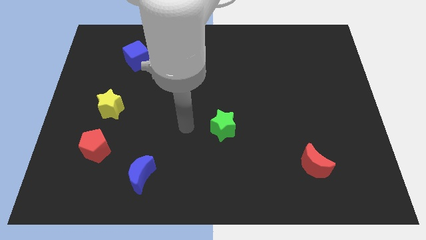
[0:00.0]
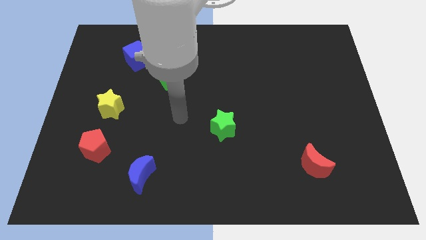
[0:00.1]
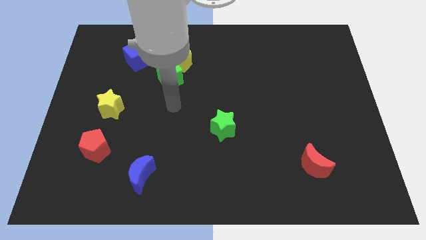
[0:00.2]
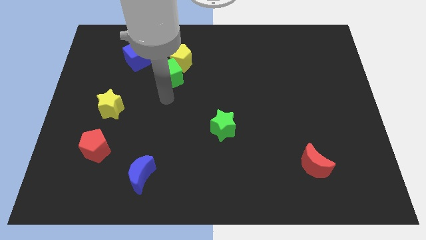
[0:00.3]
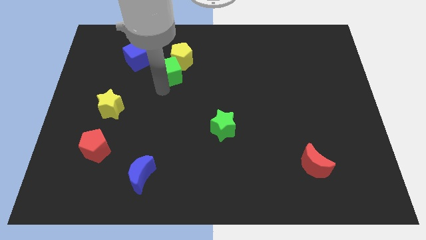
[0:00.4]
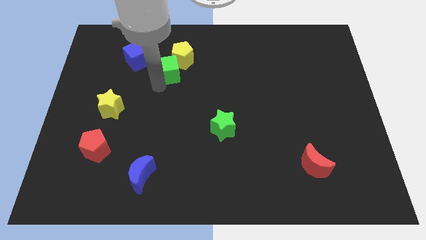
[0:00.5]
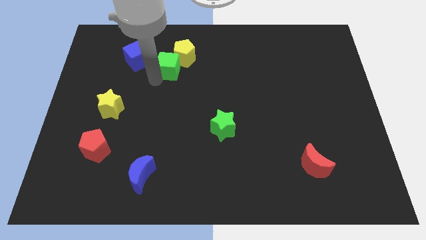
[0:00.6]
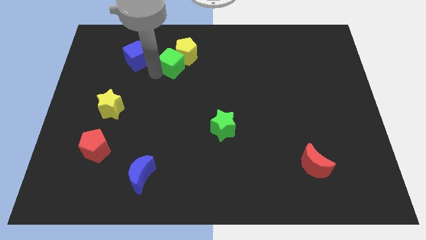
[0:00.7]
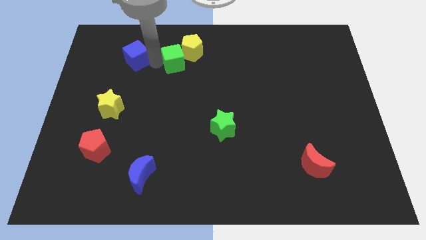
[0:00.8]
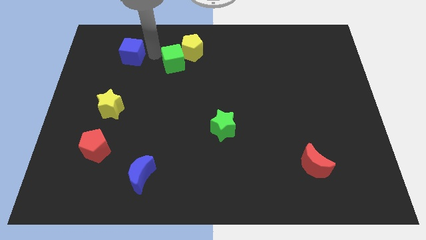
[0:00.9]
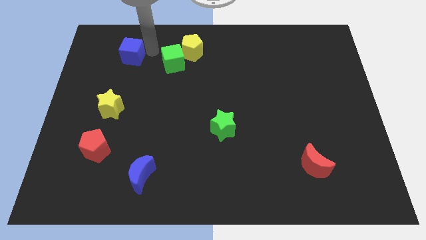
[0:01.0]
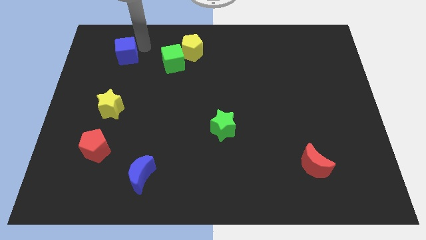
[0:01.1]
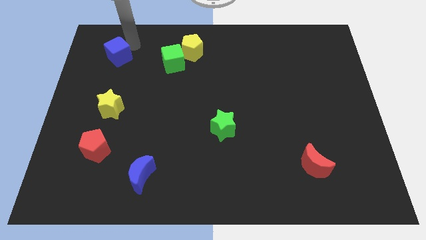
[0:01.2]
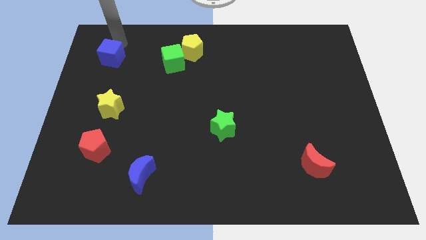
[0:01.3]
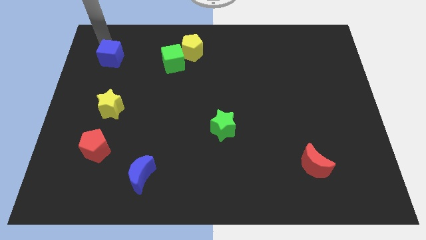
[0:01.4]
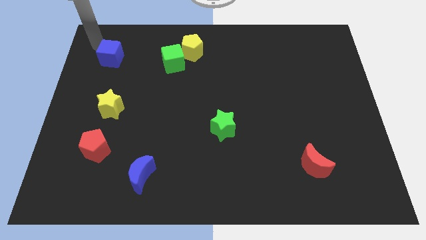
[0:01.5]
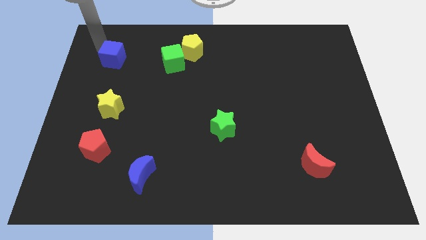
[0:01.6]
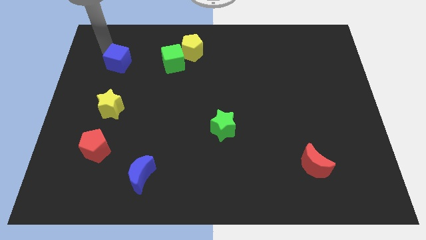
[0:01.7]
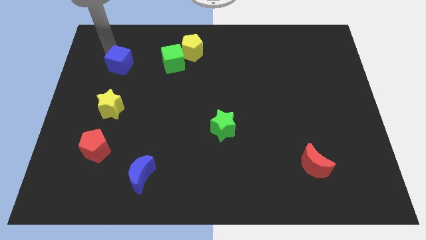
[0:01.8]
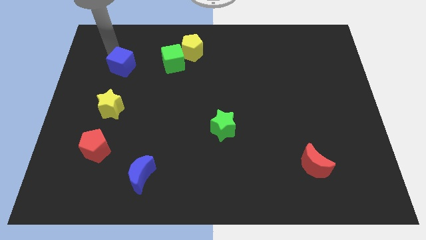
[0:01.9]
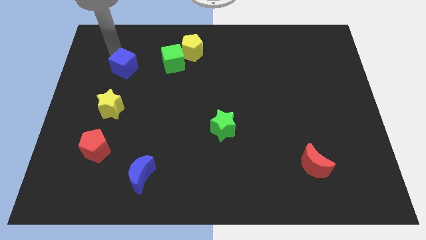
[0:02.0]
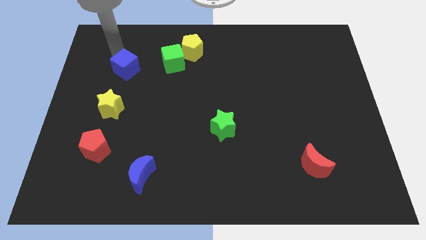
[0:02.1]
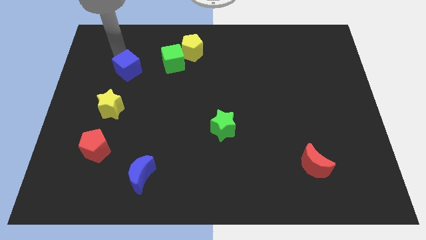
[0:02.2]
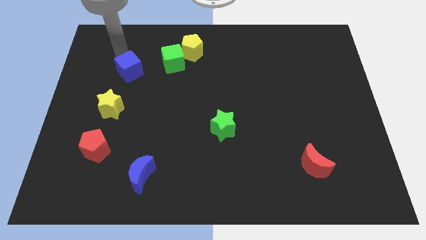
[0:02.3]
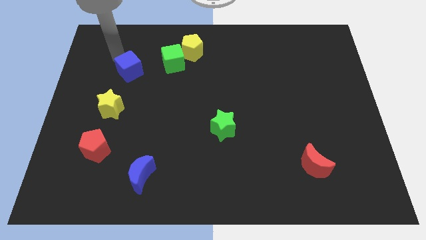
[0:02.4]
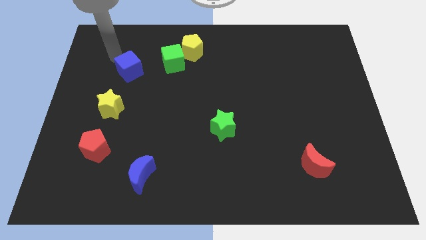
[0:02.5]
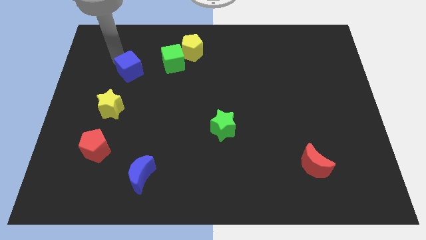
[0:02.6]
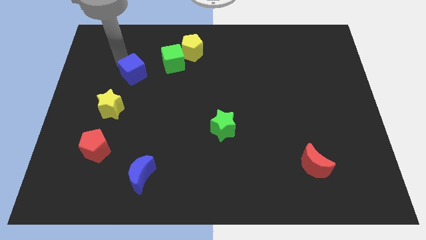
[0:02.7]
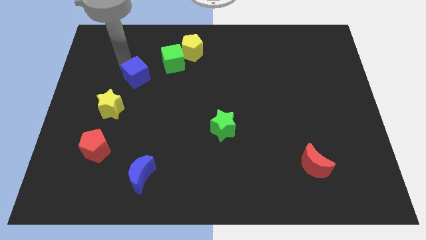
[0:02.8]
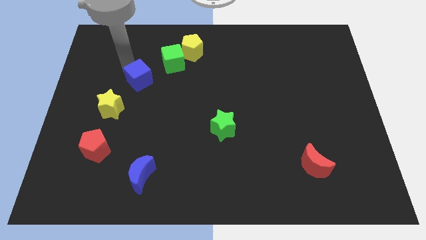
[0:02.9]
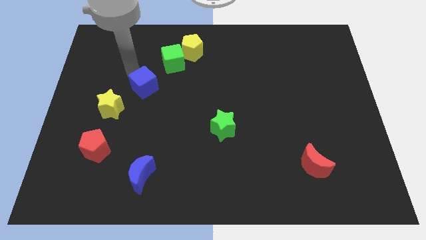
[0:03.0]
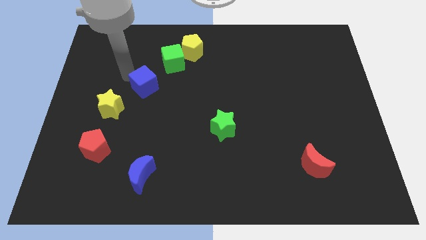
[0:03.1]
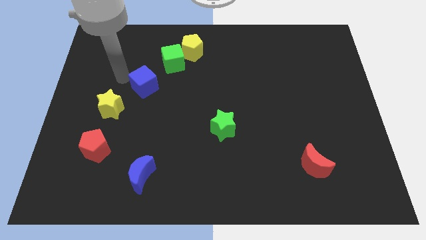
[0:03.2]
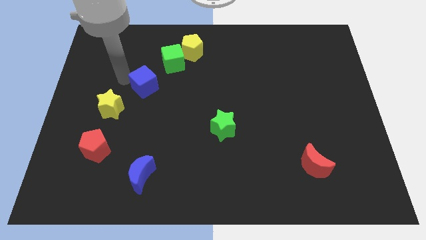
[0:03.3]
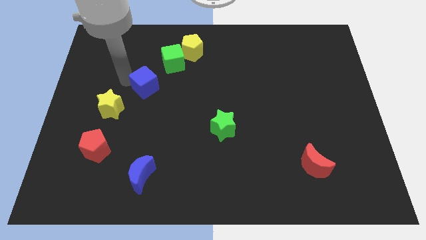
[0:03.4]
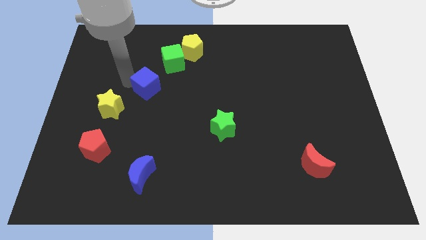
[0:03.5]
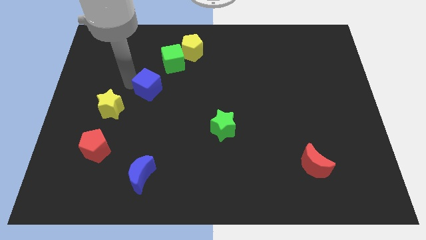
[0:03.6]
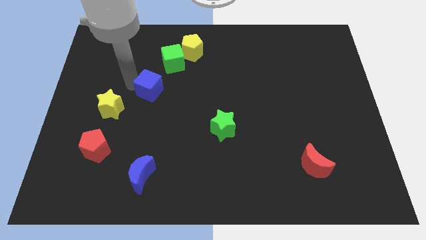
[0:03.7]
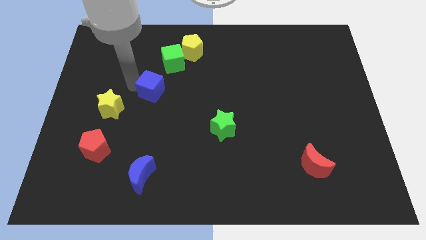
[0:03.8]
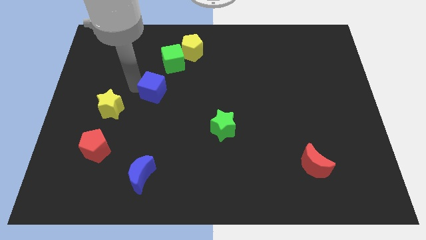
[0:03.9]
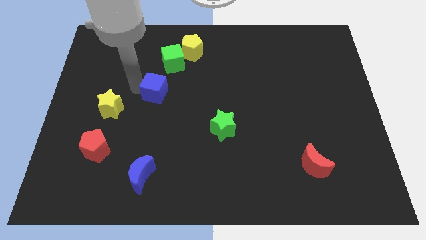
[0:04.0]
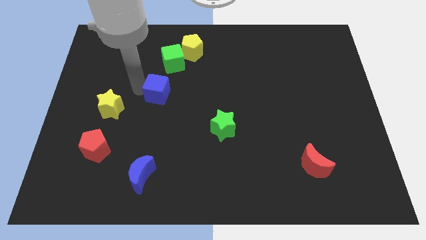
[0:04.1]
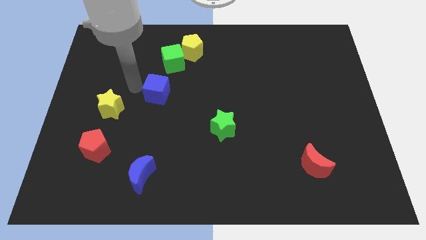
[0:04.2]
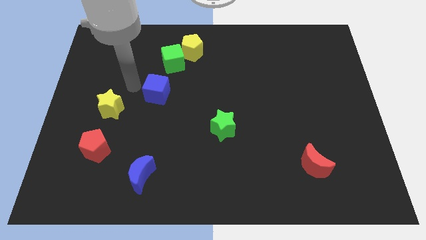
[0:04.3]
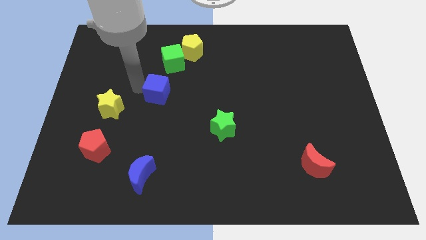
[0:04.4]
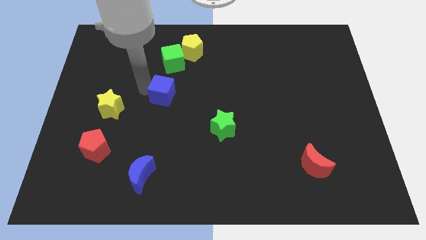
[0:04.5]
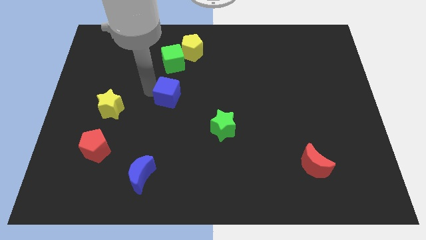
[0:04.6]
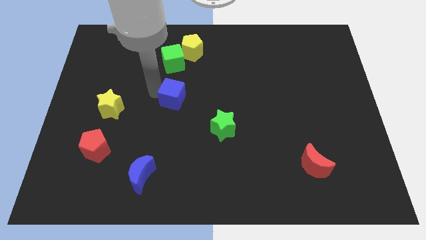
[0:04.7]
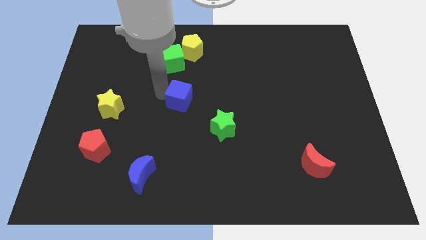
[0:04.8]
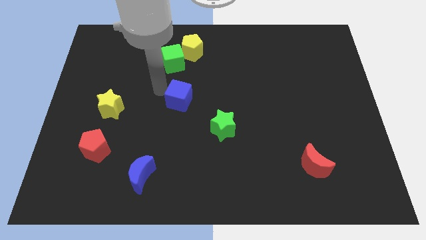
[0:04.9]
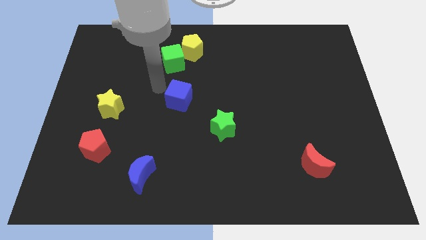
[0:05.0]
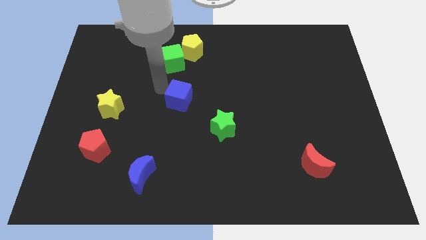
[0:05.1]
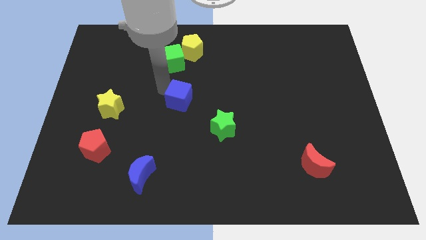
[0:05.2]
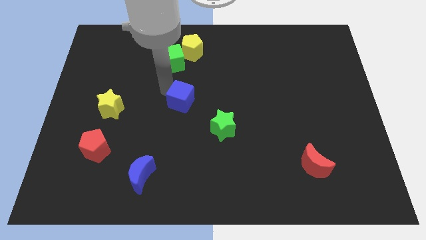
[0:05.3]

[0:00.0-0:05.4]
move the blue cube diagonally up and to the left of the green star

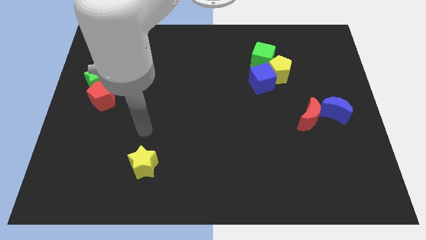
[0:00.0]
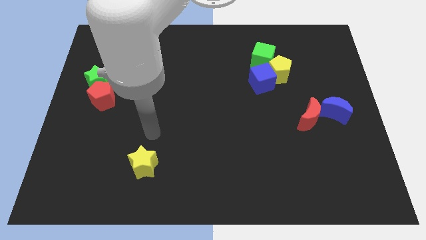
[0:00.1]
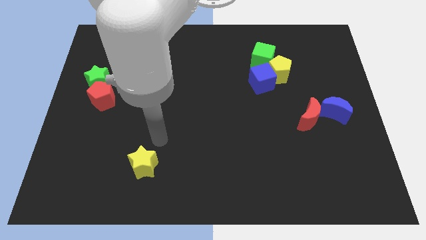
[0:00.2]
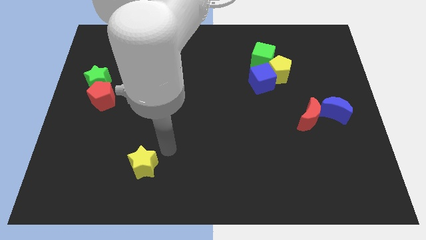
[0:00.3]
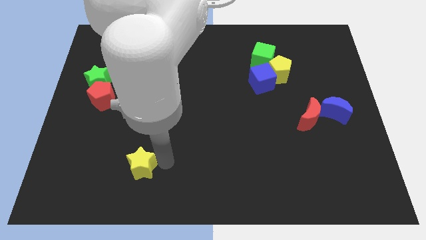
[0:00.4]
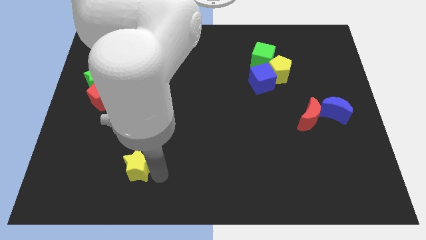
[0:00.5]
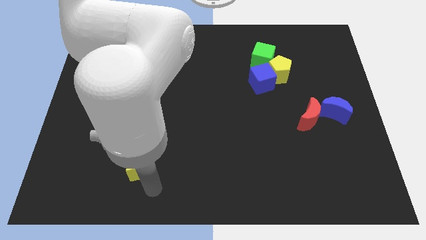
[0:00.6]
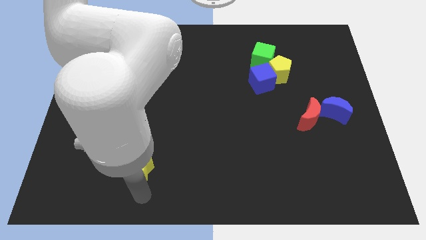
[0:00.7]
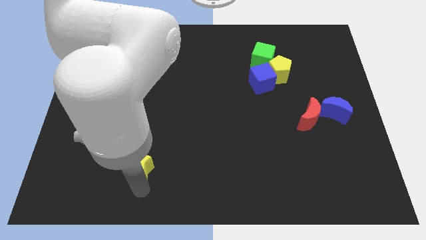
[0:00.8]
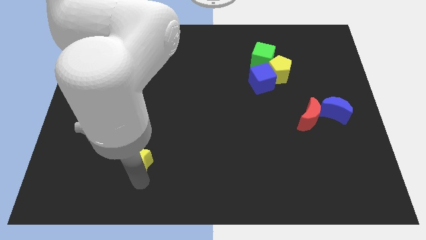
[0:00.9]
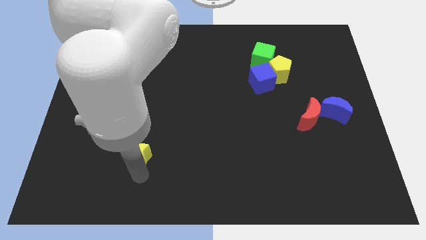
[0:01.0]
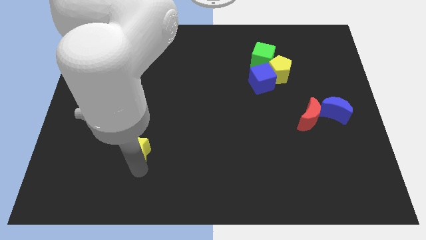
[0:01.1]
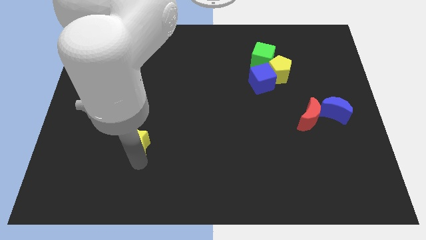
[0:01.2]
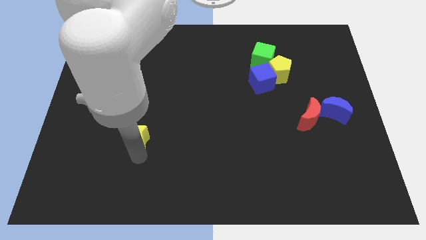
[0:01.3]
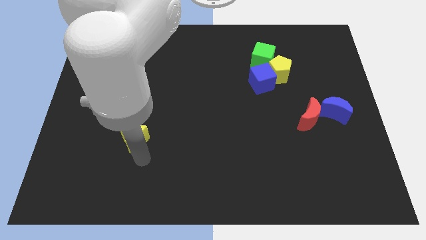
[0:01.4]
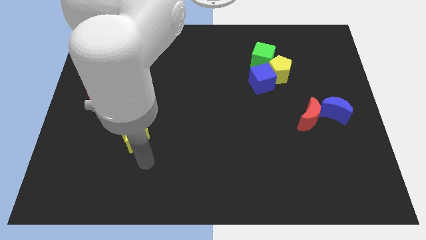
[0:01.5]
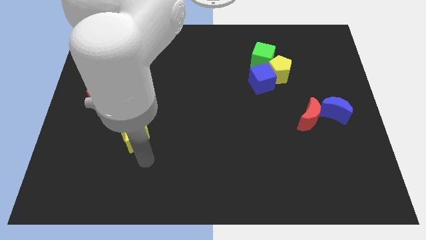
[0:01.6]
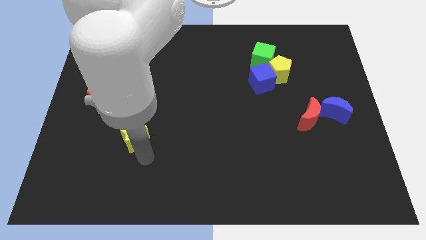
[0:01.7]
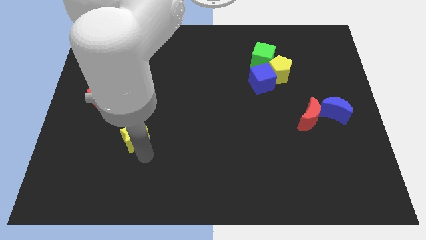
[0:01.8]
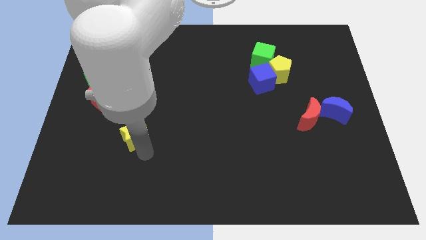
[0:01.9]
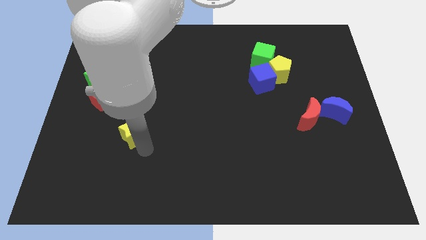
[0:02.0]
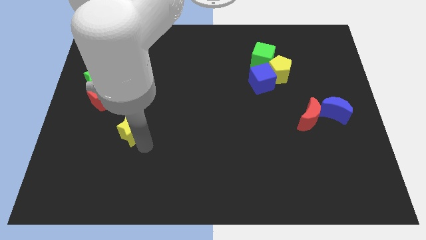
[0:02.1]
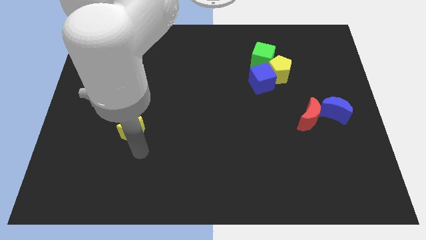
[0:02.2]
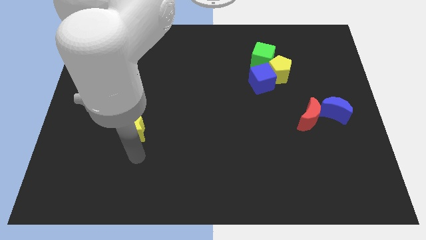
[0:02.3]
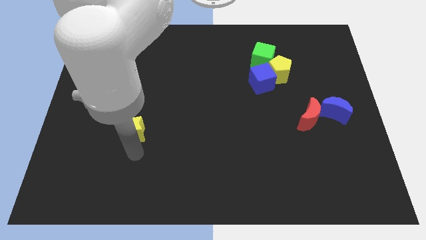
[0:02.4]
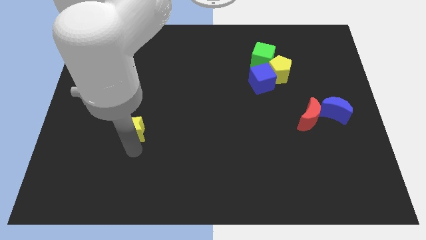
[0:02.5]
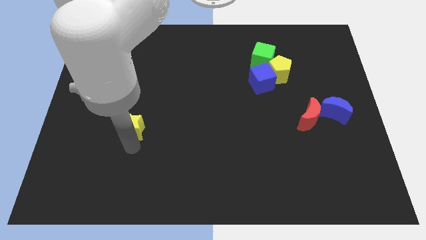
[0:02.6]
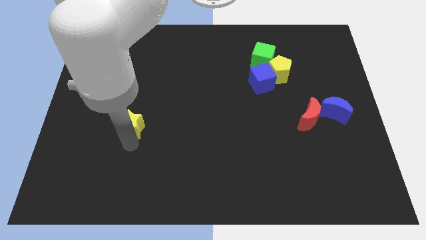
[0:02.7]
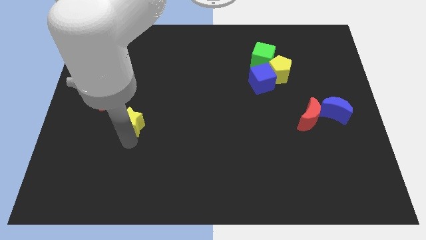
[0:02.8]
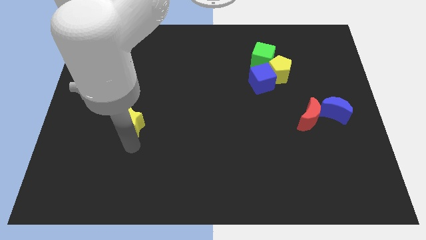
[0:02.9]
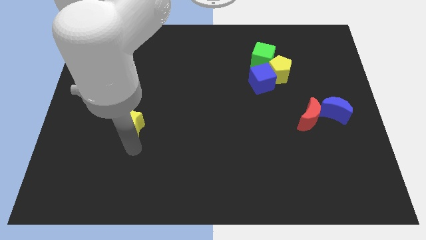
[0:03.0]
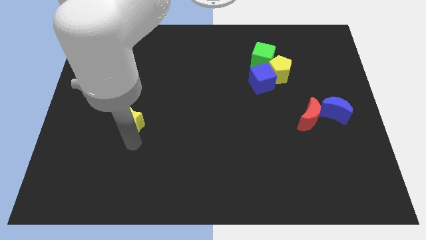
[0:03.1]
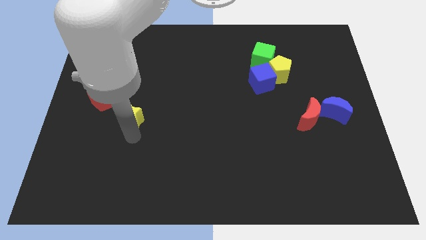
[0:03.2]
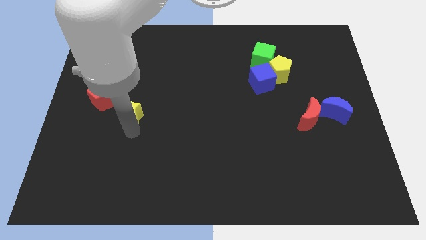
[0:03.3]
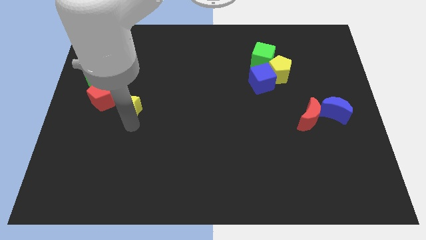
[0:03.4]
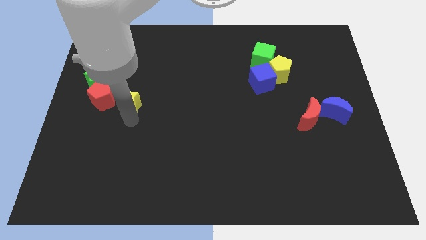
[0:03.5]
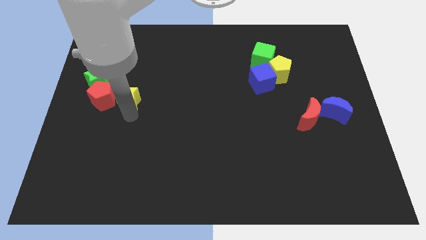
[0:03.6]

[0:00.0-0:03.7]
push the yellow star to the top right of the red pentagon
